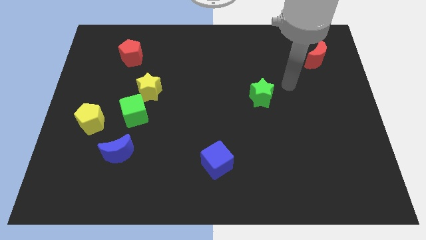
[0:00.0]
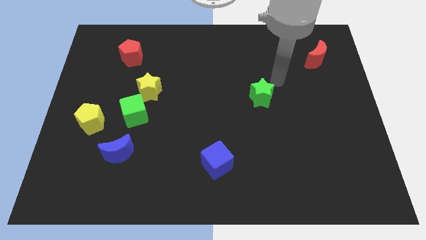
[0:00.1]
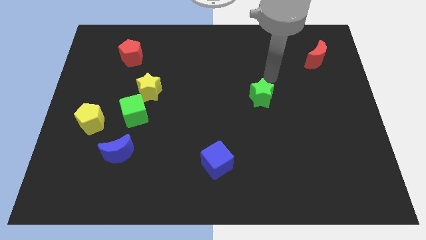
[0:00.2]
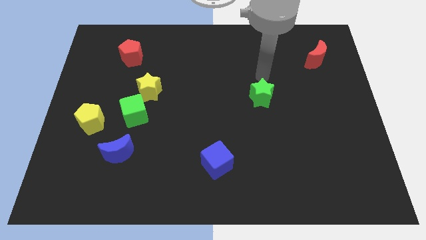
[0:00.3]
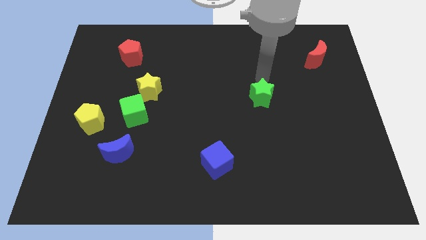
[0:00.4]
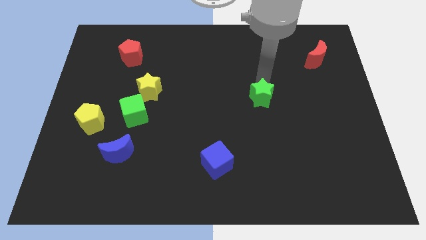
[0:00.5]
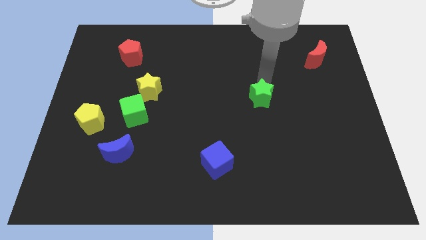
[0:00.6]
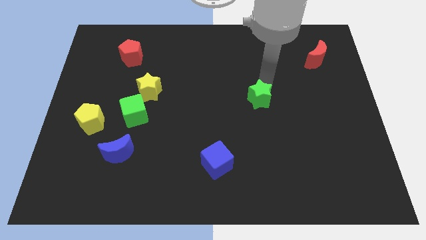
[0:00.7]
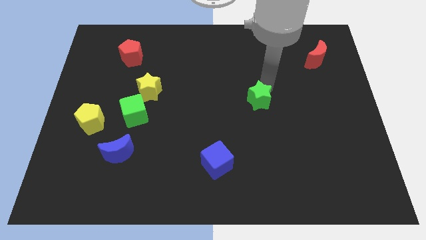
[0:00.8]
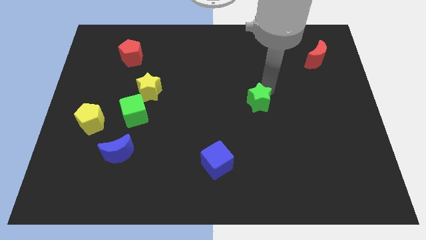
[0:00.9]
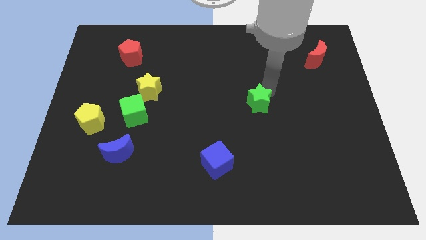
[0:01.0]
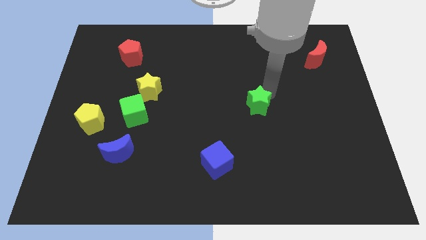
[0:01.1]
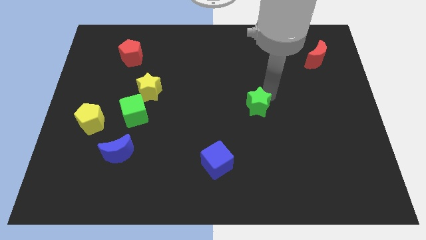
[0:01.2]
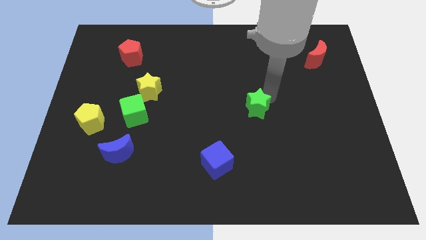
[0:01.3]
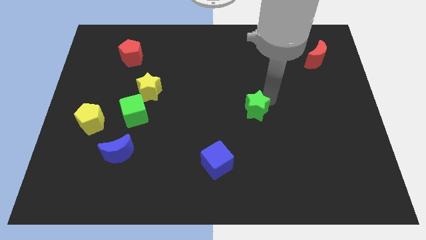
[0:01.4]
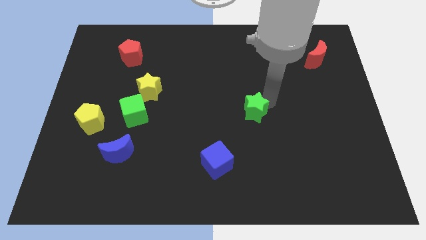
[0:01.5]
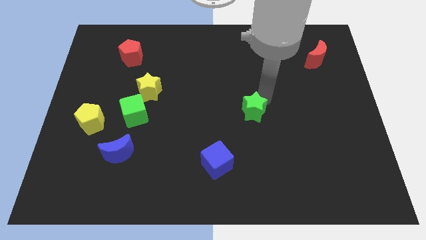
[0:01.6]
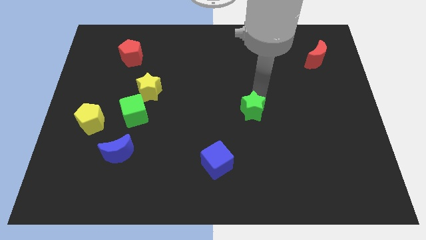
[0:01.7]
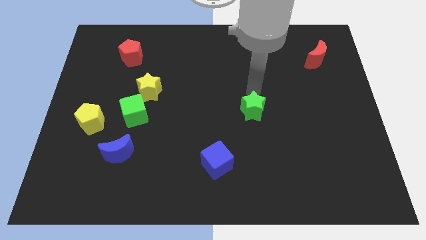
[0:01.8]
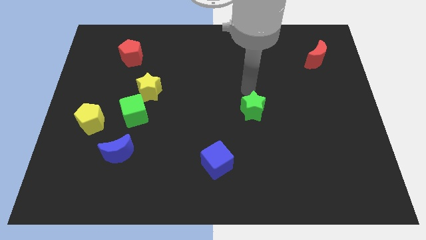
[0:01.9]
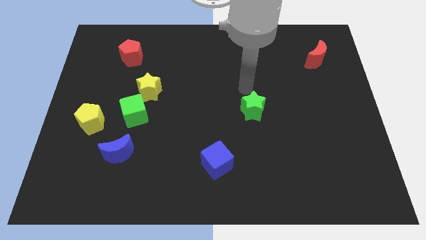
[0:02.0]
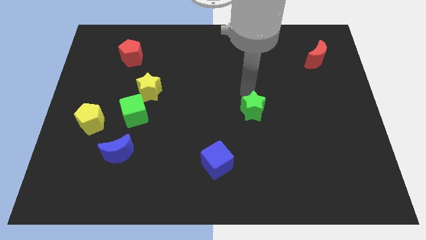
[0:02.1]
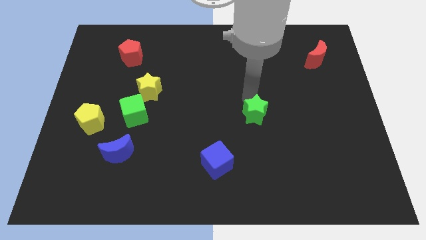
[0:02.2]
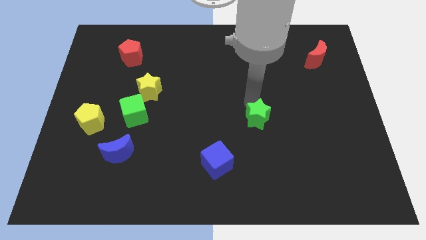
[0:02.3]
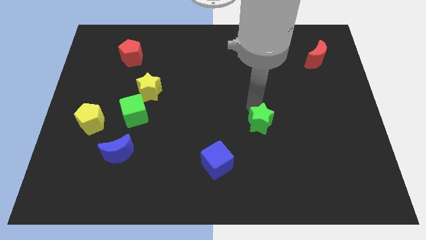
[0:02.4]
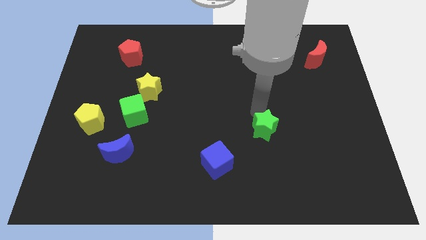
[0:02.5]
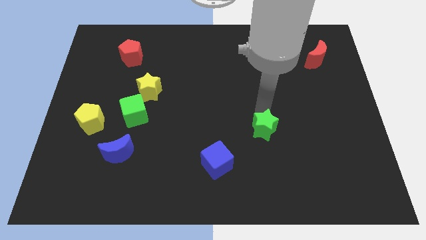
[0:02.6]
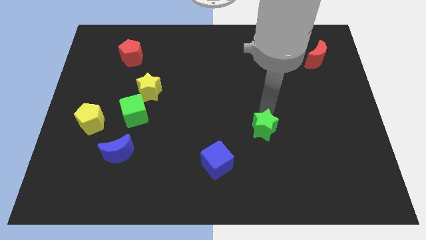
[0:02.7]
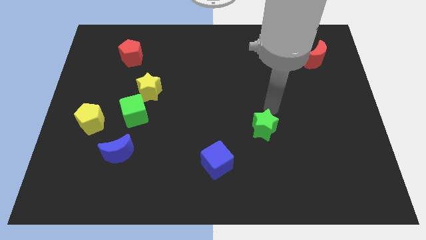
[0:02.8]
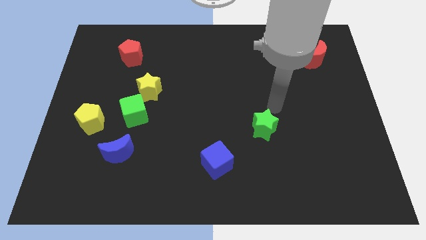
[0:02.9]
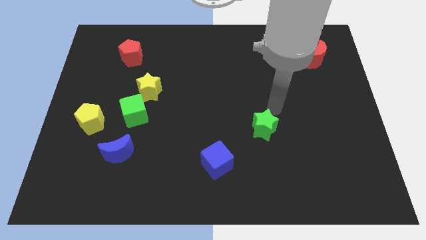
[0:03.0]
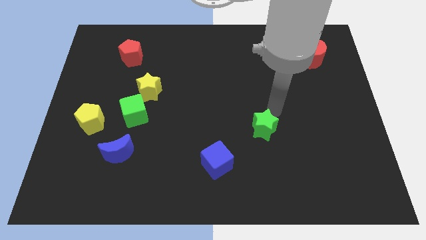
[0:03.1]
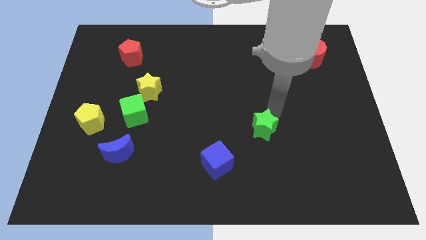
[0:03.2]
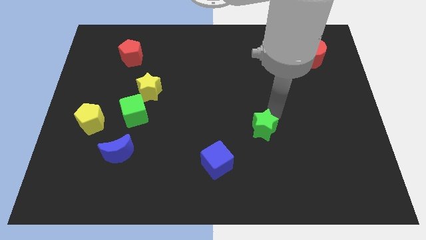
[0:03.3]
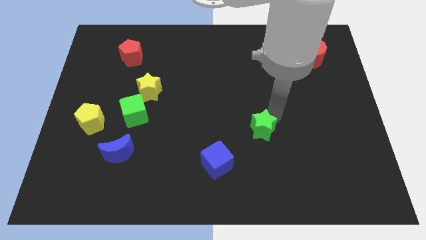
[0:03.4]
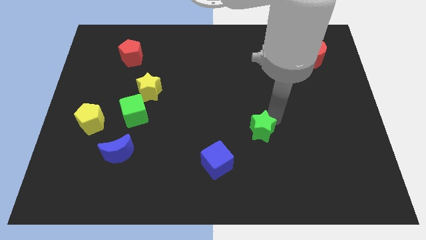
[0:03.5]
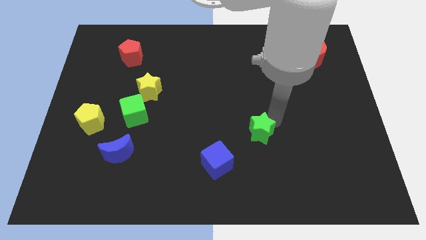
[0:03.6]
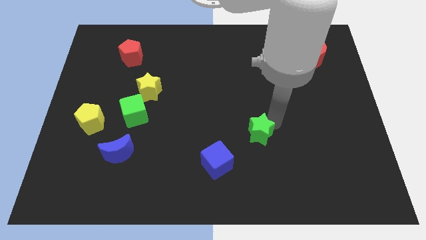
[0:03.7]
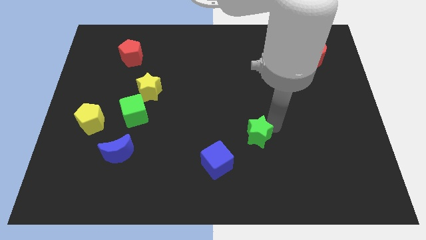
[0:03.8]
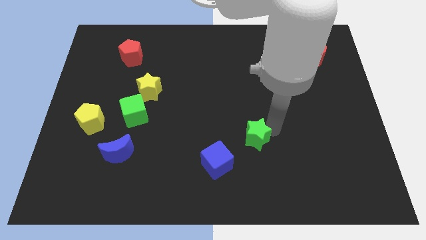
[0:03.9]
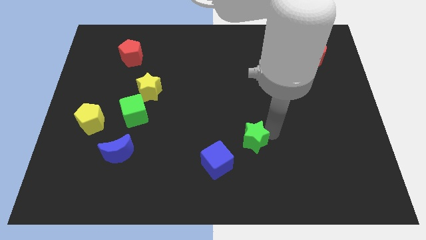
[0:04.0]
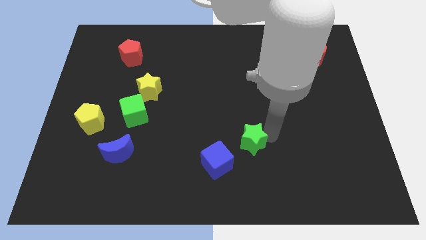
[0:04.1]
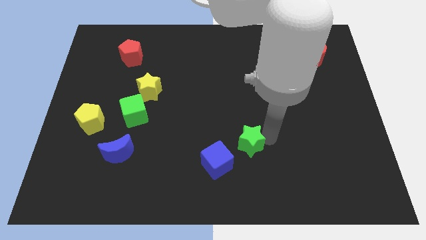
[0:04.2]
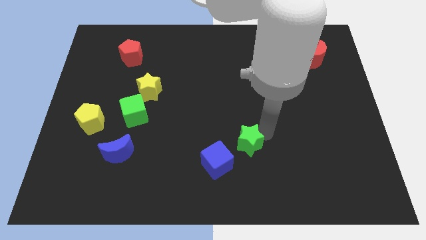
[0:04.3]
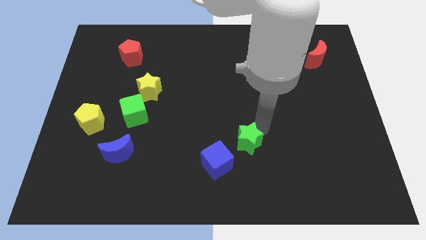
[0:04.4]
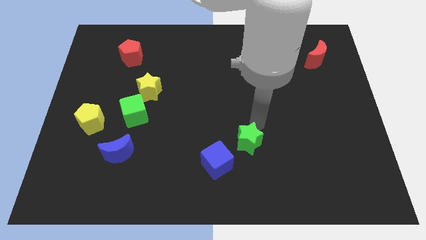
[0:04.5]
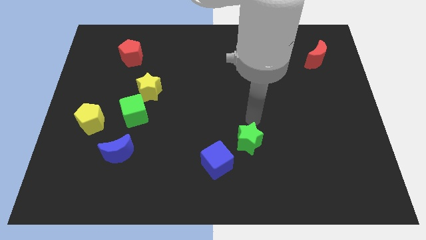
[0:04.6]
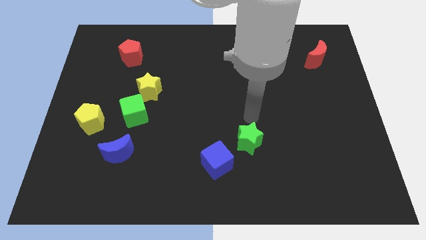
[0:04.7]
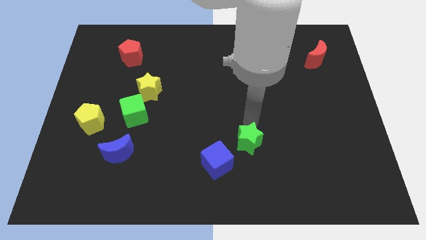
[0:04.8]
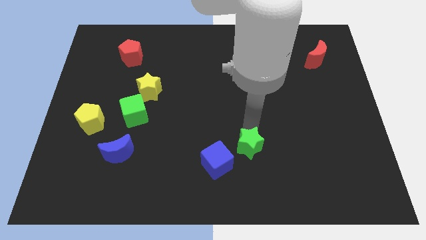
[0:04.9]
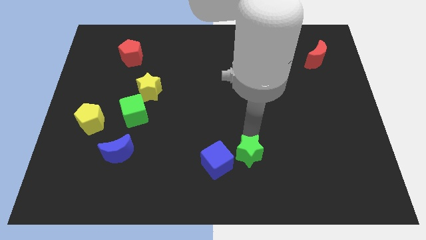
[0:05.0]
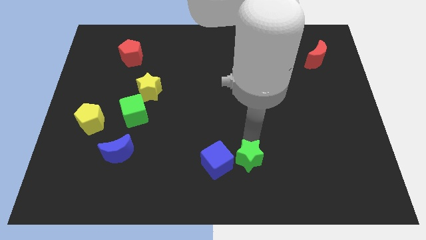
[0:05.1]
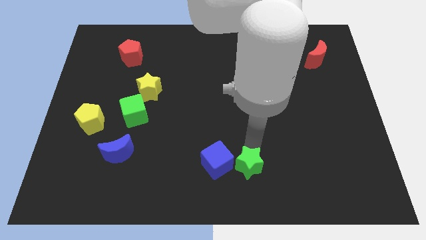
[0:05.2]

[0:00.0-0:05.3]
move the green star to the bottom

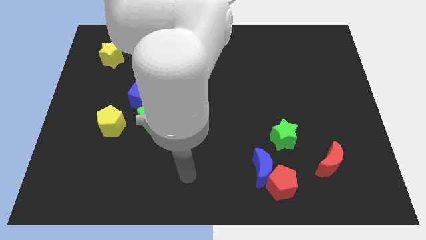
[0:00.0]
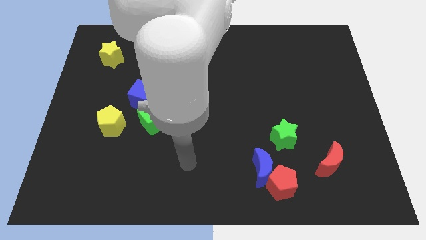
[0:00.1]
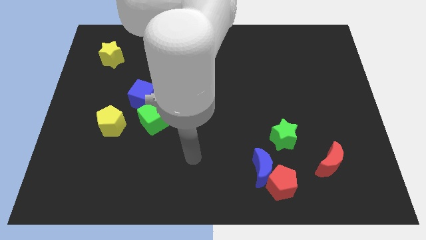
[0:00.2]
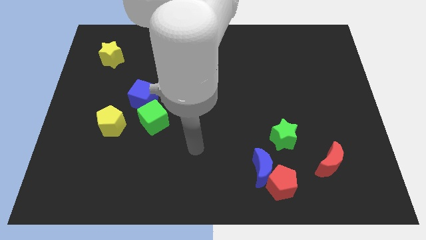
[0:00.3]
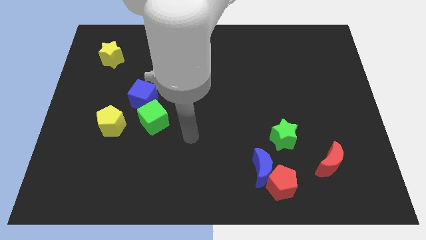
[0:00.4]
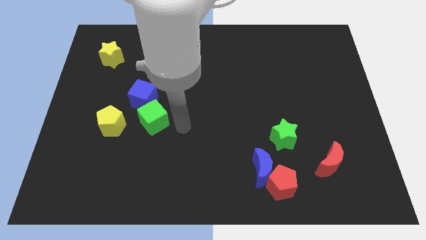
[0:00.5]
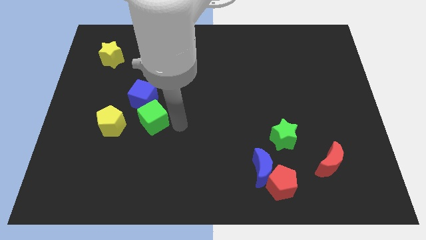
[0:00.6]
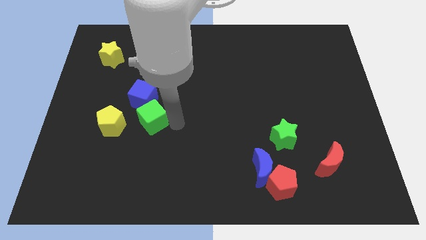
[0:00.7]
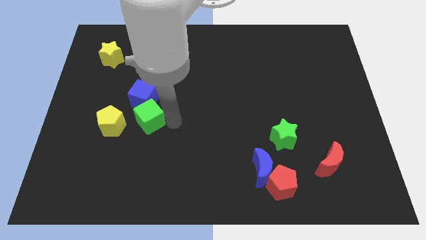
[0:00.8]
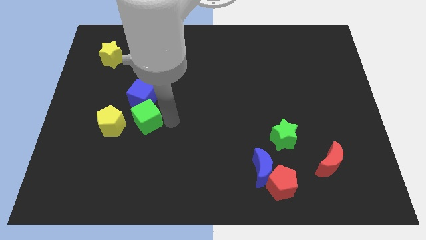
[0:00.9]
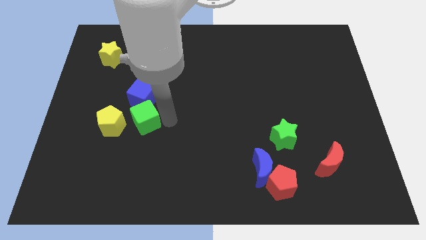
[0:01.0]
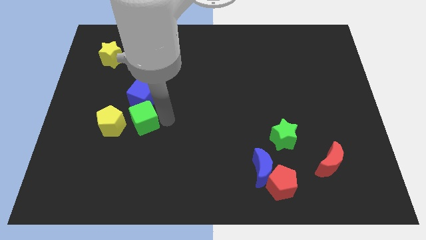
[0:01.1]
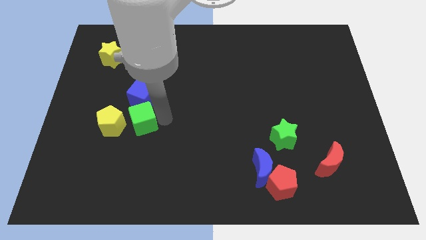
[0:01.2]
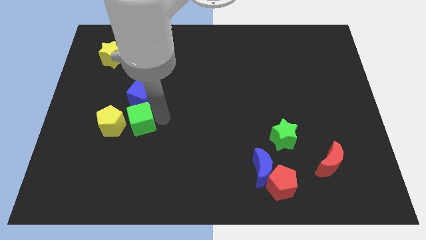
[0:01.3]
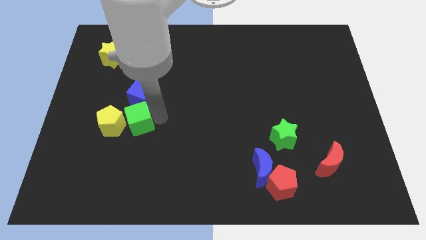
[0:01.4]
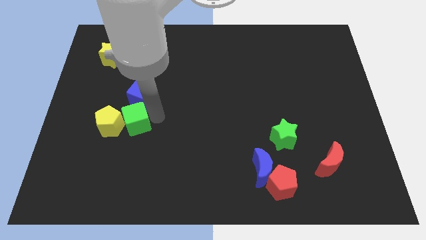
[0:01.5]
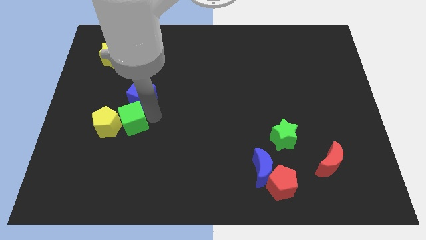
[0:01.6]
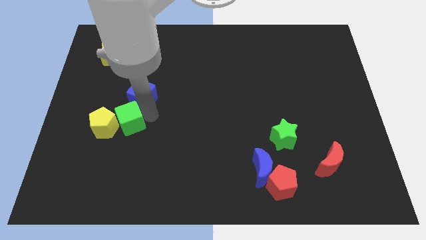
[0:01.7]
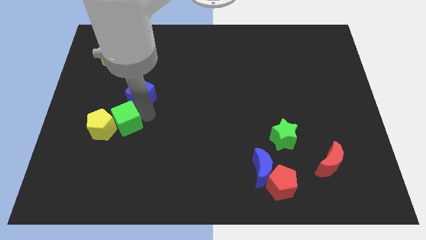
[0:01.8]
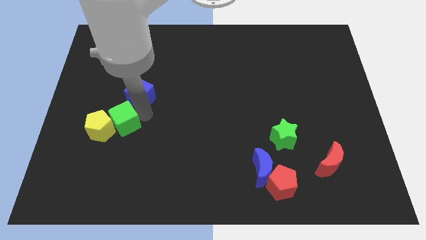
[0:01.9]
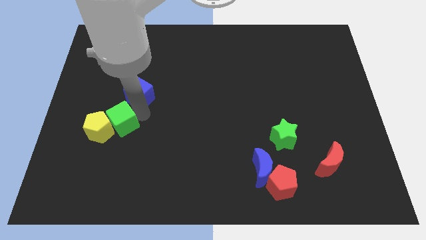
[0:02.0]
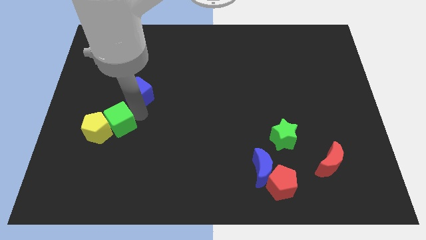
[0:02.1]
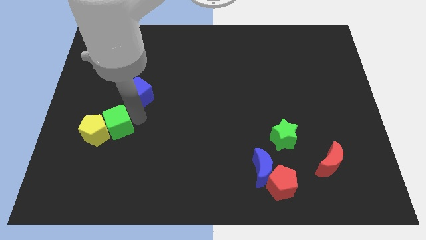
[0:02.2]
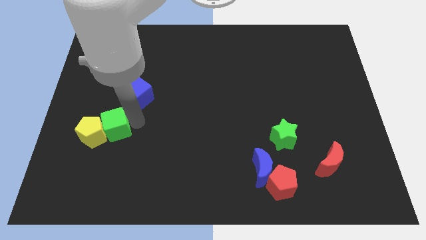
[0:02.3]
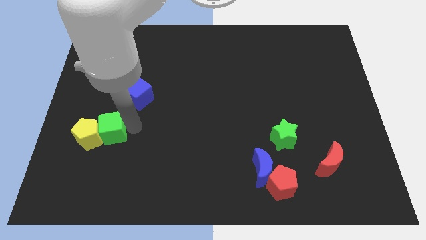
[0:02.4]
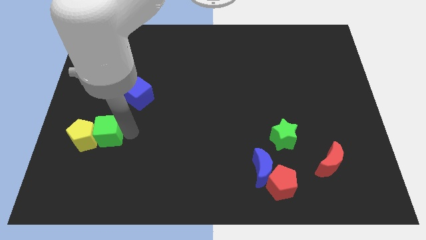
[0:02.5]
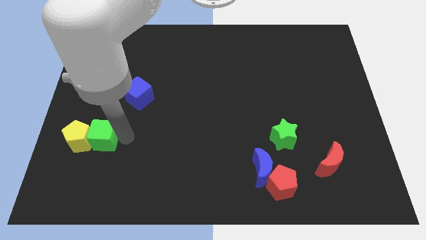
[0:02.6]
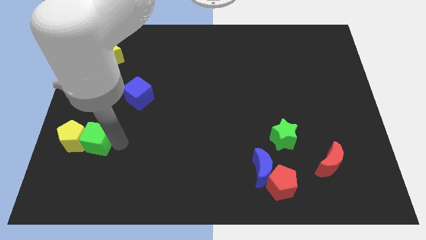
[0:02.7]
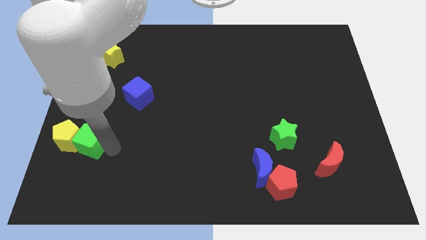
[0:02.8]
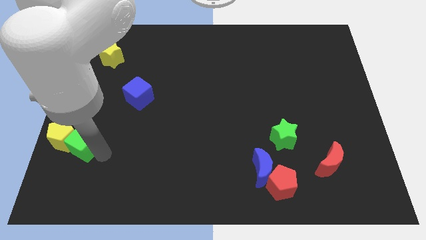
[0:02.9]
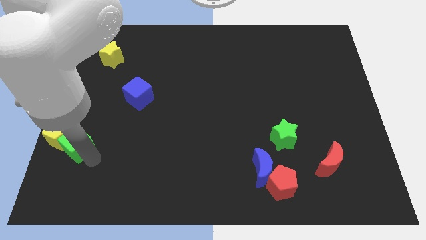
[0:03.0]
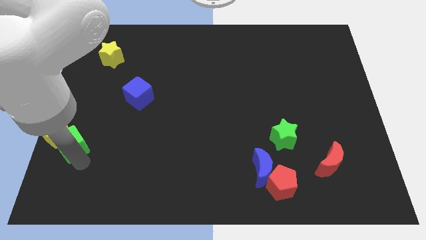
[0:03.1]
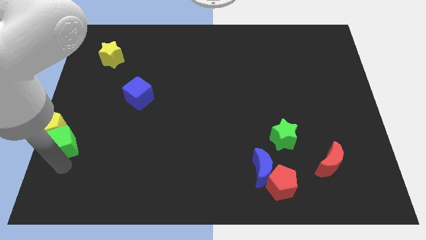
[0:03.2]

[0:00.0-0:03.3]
slide the green cube to the center left
